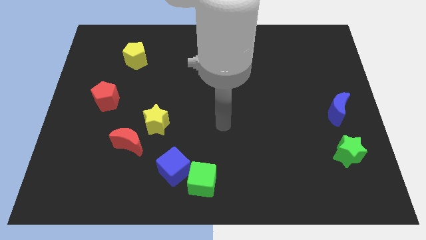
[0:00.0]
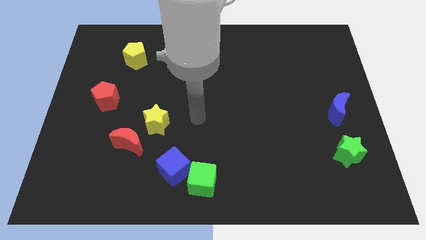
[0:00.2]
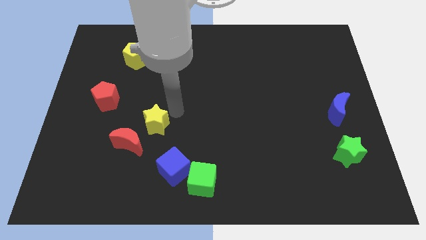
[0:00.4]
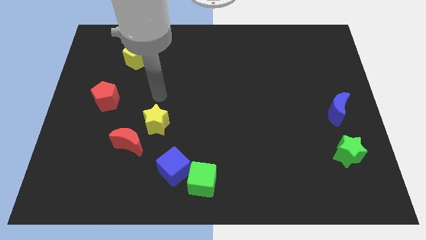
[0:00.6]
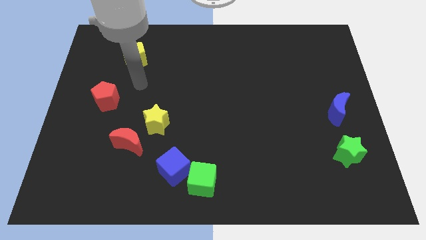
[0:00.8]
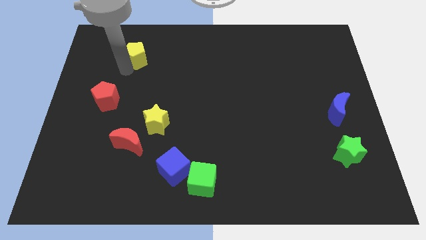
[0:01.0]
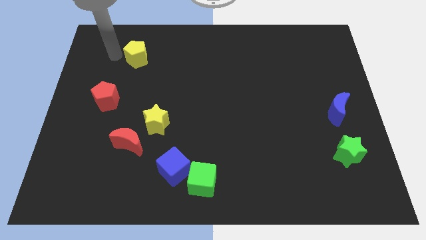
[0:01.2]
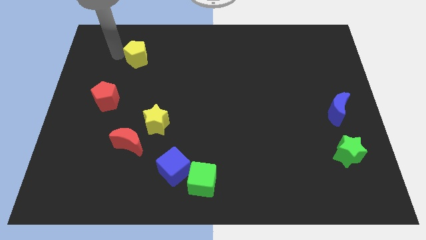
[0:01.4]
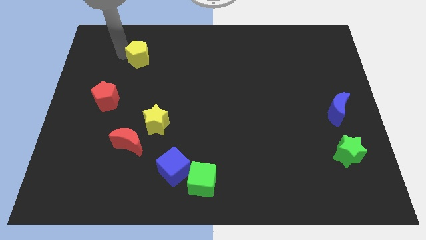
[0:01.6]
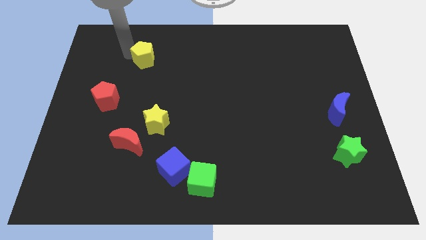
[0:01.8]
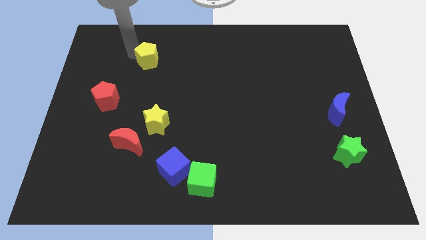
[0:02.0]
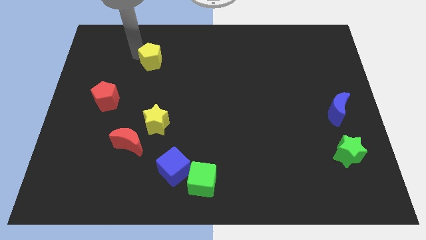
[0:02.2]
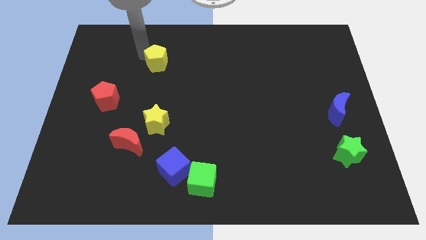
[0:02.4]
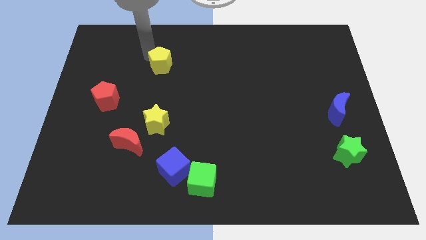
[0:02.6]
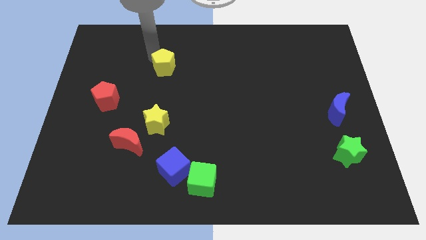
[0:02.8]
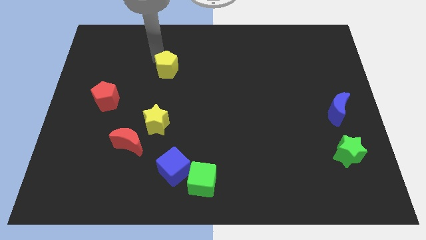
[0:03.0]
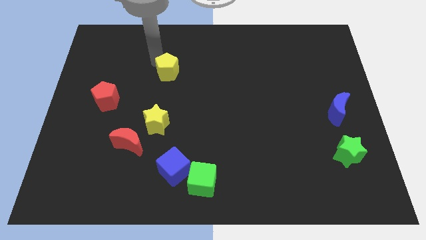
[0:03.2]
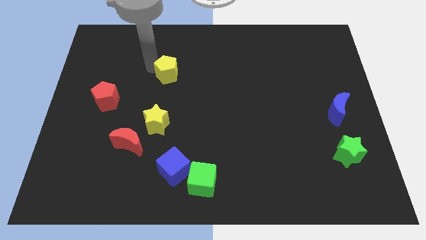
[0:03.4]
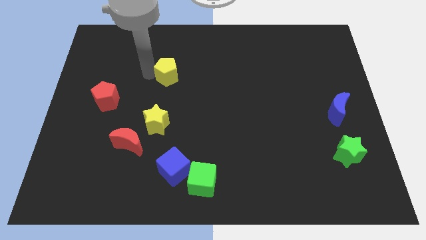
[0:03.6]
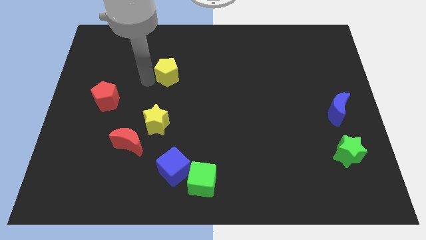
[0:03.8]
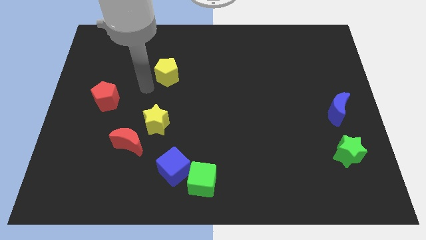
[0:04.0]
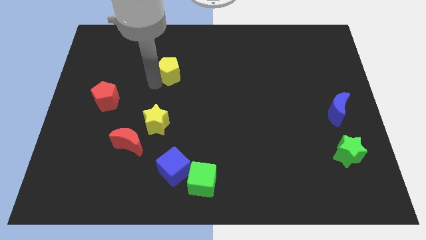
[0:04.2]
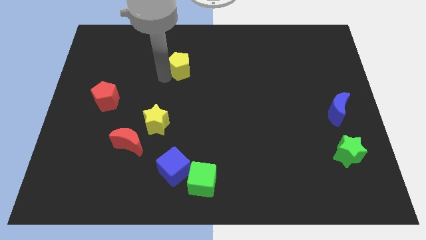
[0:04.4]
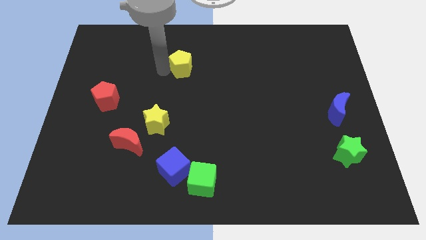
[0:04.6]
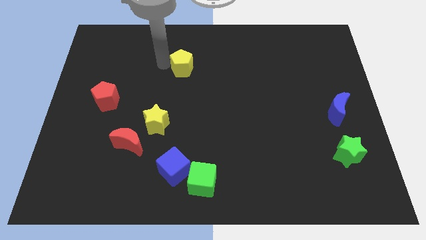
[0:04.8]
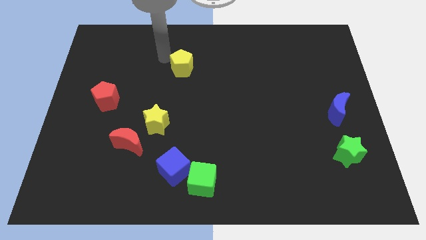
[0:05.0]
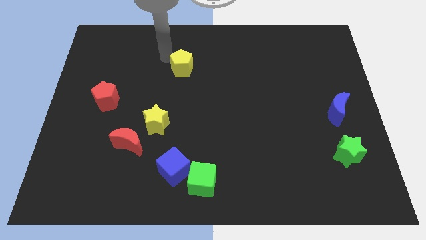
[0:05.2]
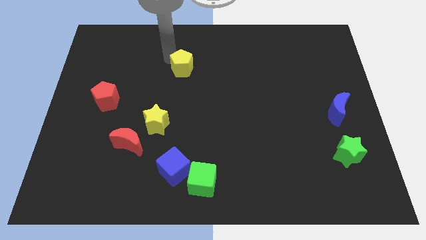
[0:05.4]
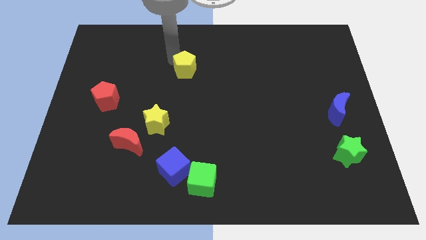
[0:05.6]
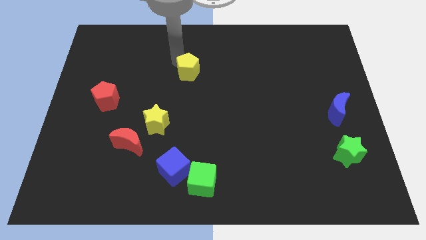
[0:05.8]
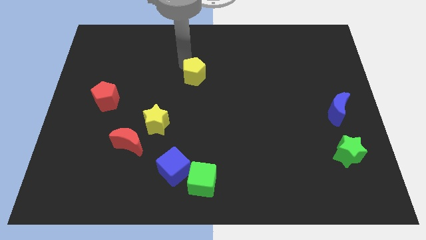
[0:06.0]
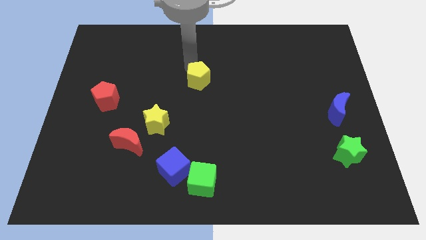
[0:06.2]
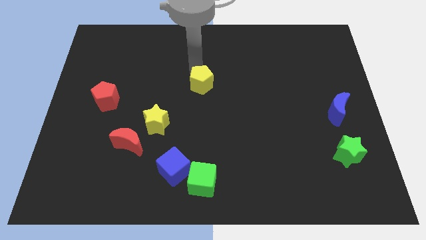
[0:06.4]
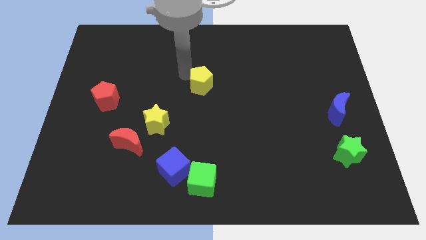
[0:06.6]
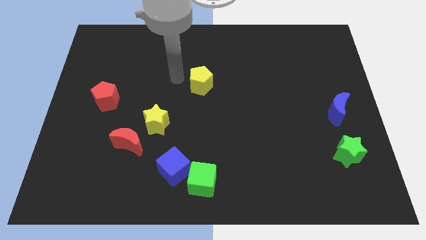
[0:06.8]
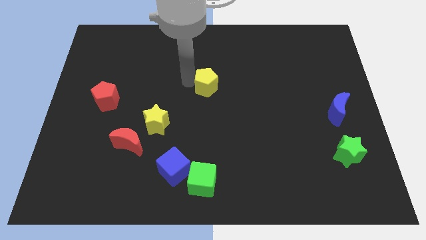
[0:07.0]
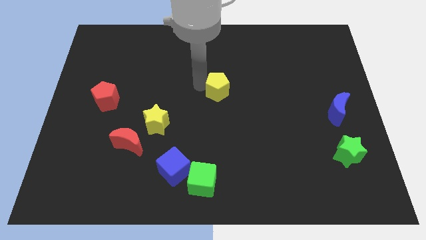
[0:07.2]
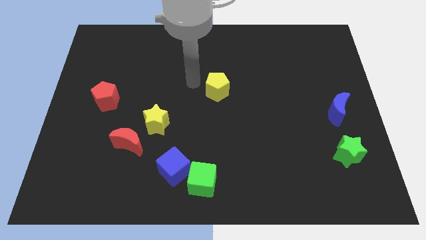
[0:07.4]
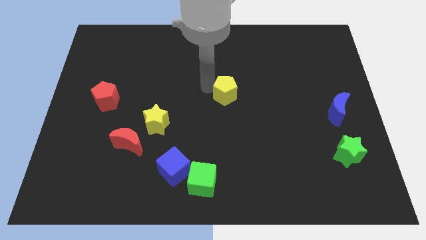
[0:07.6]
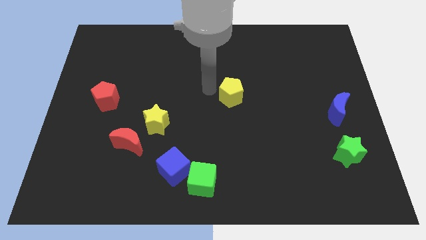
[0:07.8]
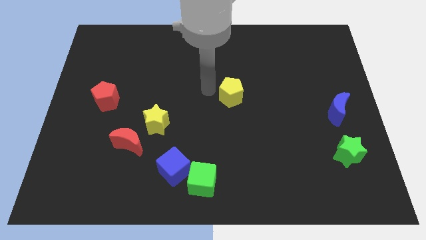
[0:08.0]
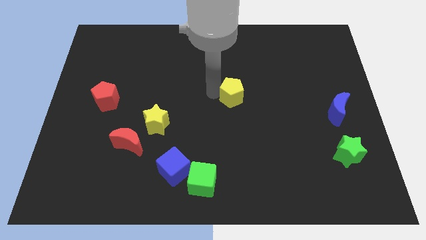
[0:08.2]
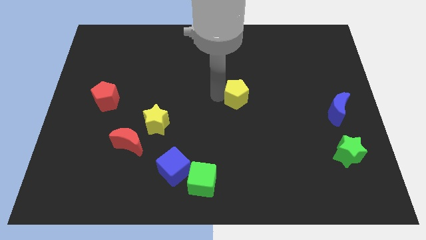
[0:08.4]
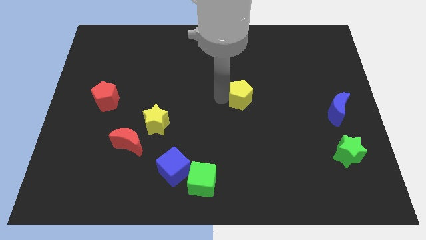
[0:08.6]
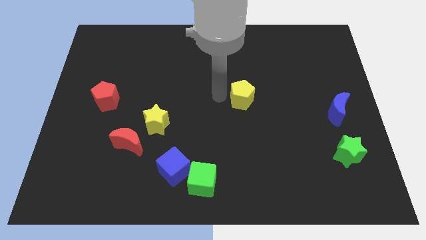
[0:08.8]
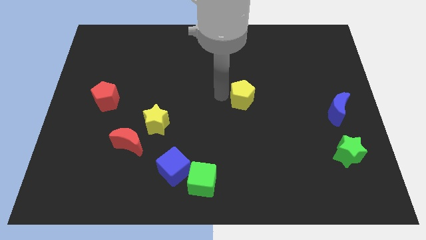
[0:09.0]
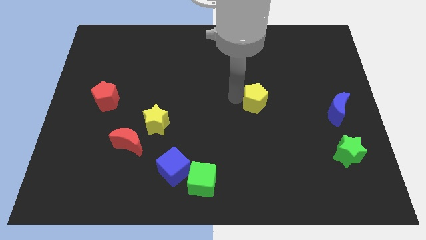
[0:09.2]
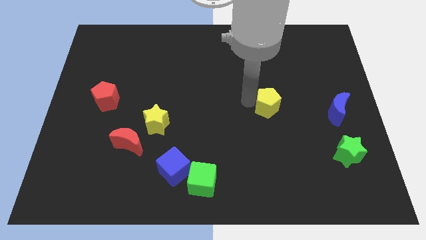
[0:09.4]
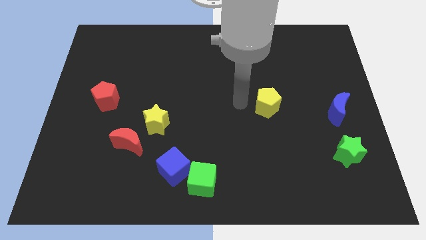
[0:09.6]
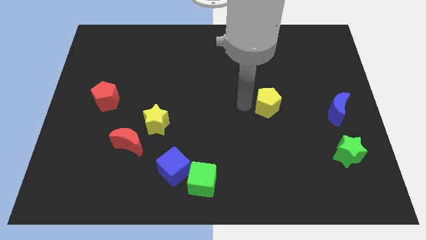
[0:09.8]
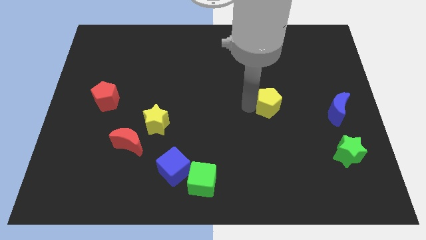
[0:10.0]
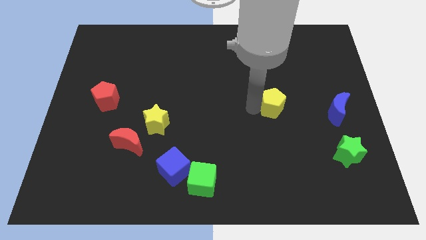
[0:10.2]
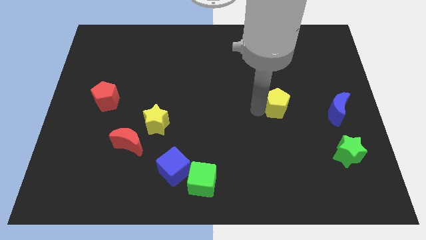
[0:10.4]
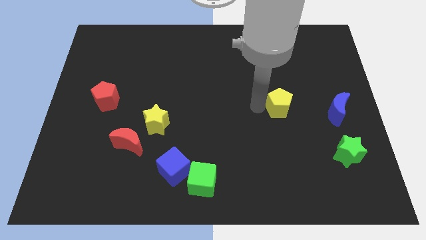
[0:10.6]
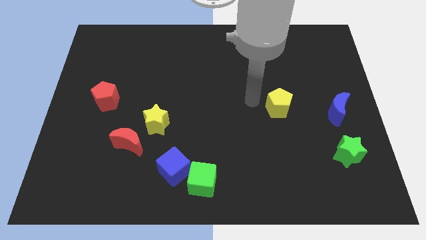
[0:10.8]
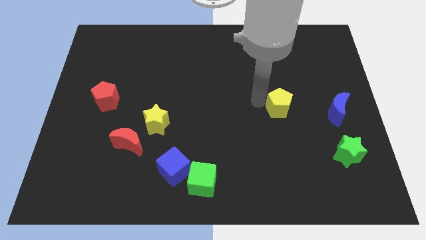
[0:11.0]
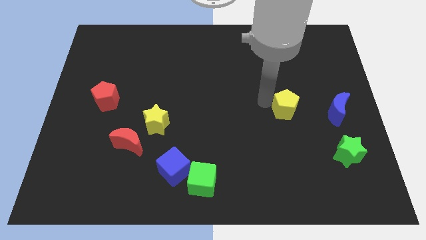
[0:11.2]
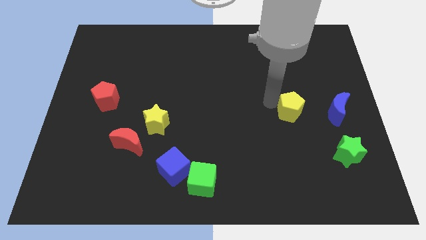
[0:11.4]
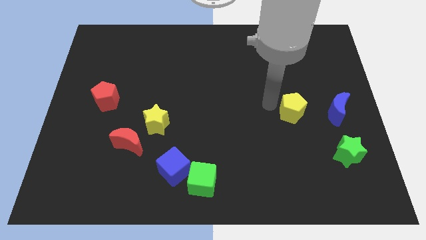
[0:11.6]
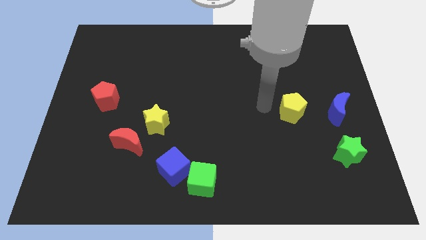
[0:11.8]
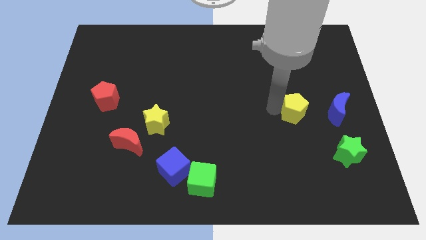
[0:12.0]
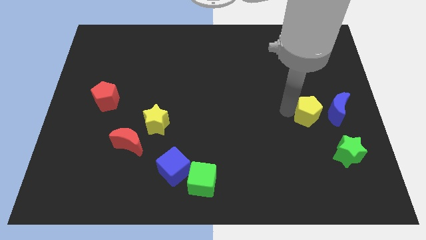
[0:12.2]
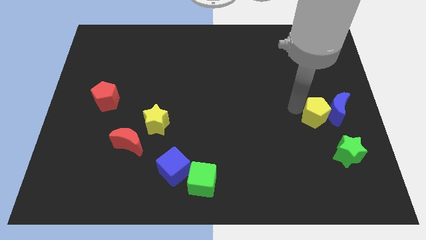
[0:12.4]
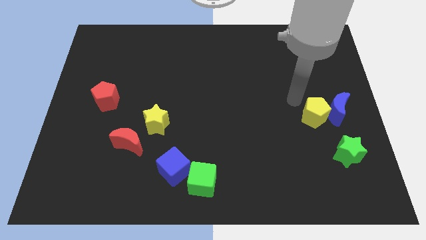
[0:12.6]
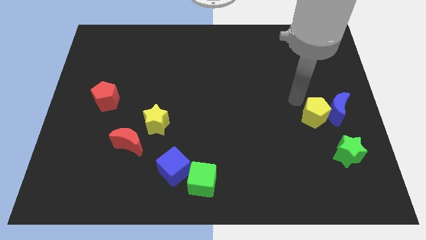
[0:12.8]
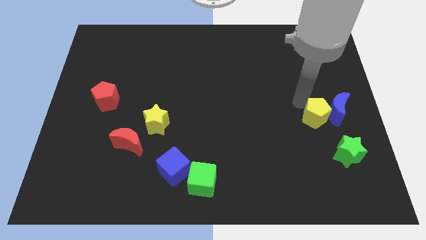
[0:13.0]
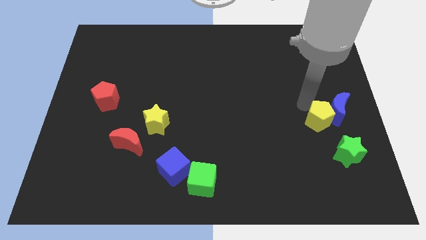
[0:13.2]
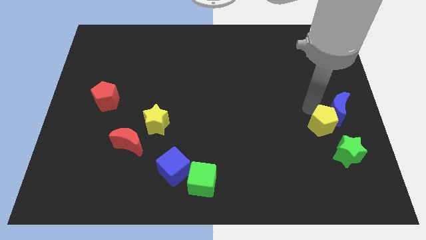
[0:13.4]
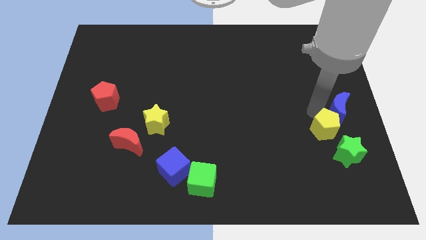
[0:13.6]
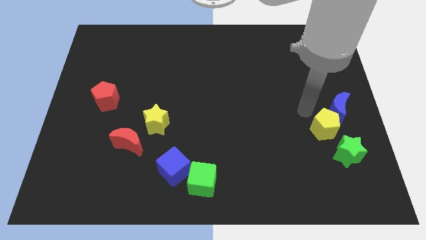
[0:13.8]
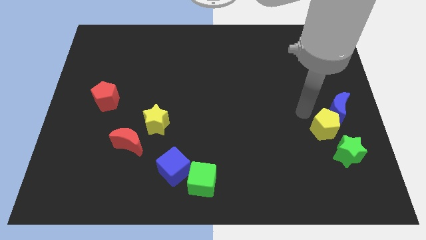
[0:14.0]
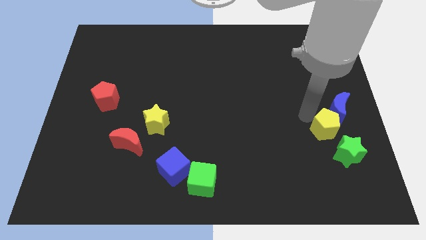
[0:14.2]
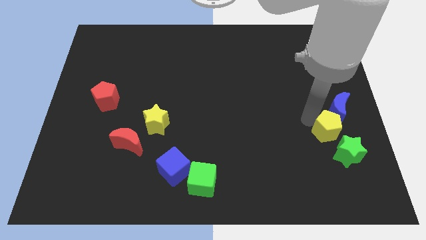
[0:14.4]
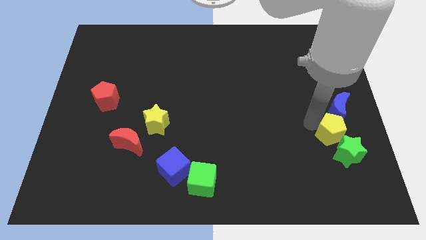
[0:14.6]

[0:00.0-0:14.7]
push the yellow pentagon next to the green star

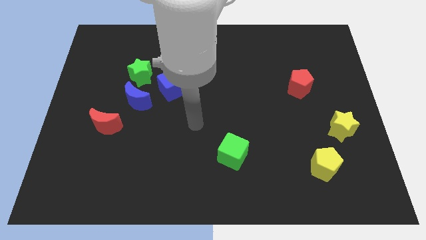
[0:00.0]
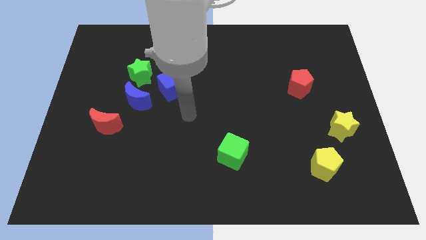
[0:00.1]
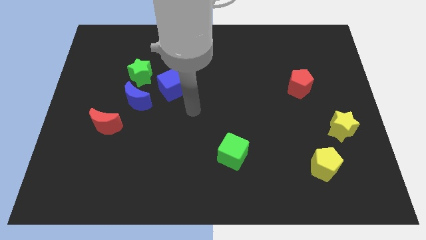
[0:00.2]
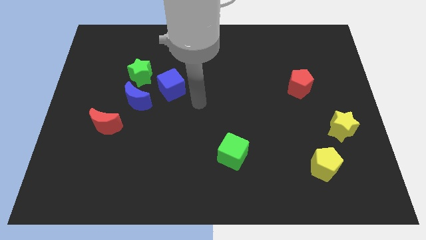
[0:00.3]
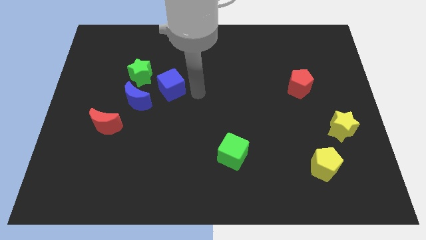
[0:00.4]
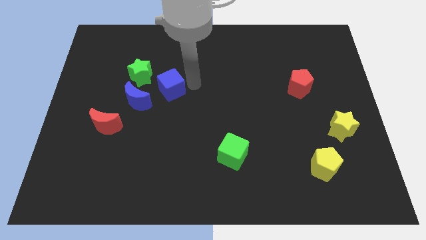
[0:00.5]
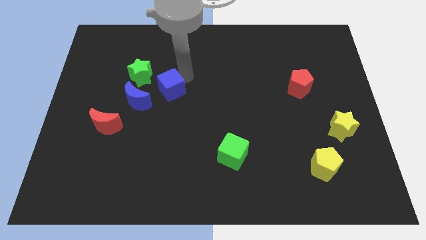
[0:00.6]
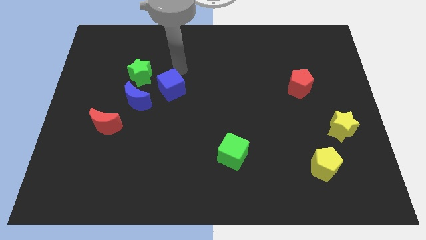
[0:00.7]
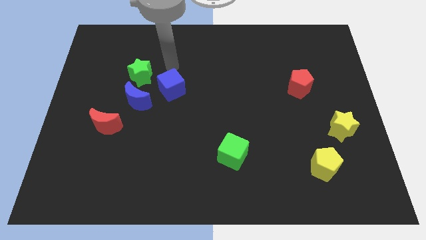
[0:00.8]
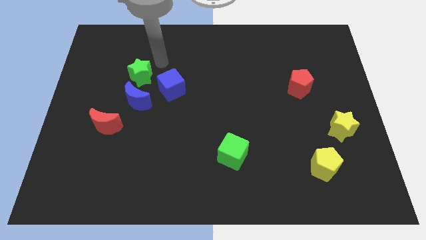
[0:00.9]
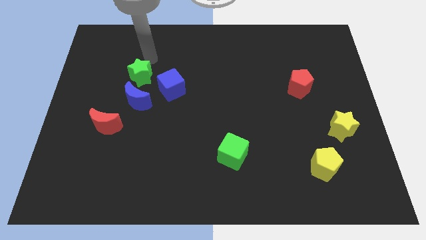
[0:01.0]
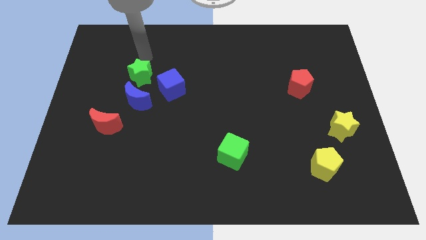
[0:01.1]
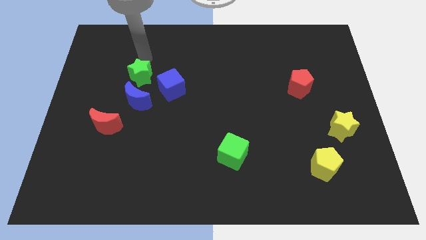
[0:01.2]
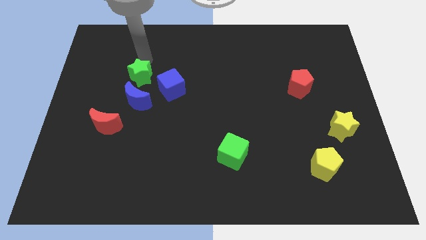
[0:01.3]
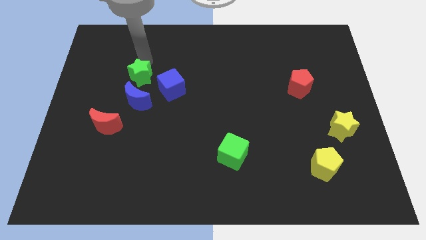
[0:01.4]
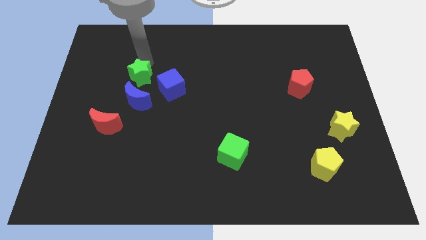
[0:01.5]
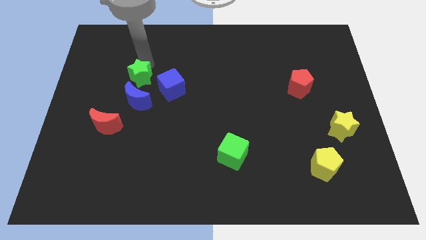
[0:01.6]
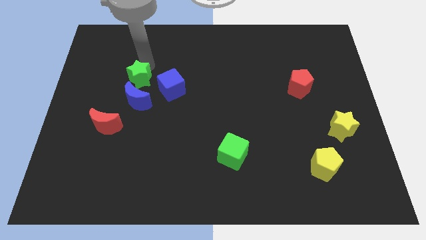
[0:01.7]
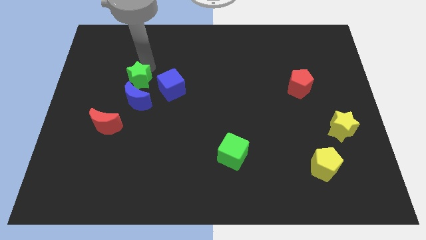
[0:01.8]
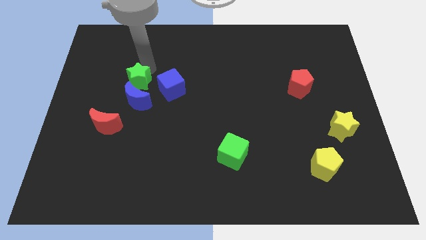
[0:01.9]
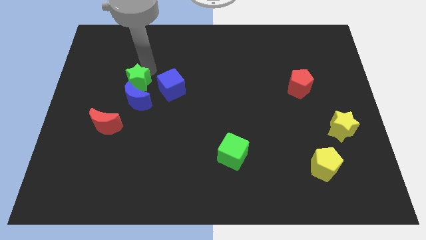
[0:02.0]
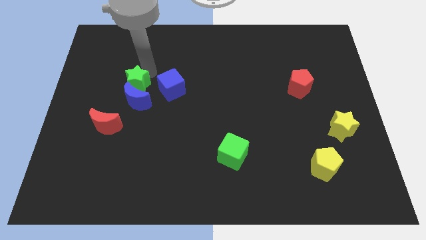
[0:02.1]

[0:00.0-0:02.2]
push the green star next to the blue moon
